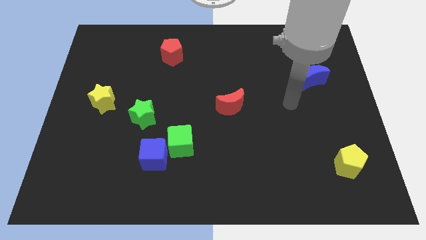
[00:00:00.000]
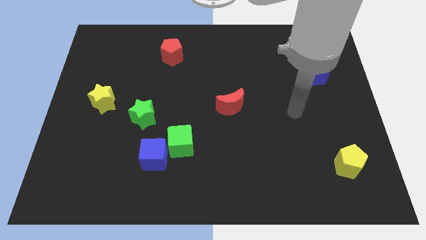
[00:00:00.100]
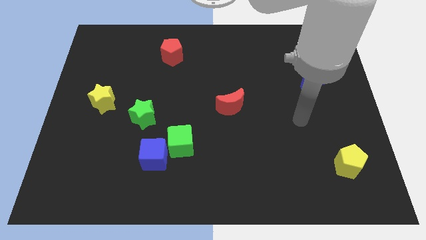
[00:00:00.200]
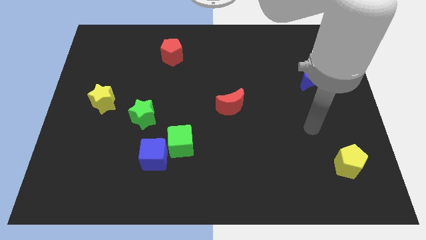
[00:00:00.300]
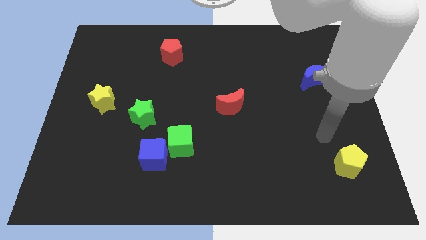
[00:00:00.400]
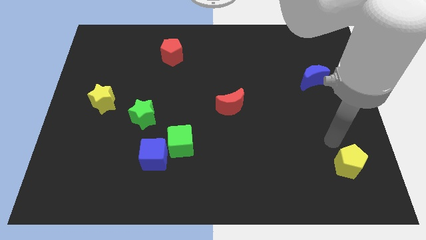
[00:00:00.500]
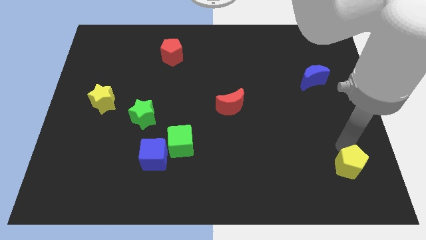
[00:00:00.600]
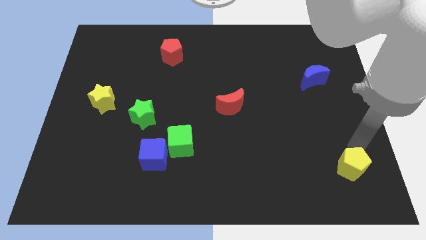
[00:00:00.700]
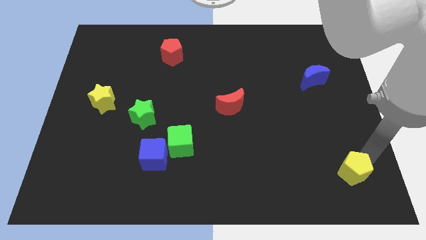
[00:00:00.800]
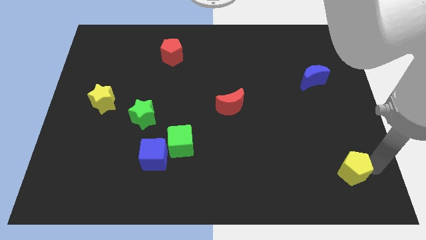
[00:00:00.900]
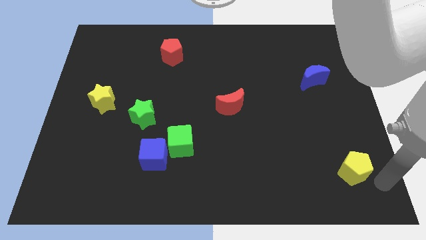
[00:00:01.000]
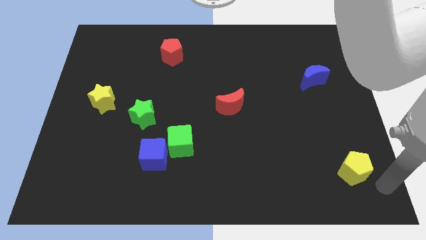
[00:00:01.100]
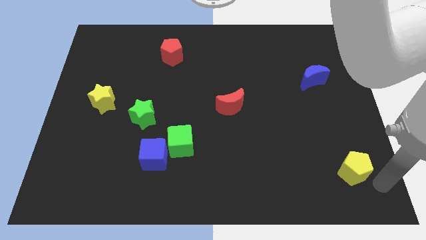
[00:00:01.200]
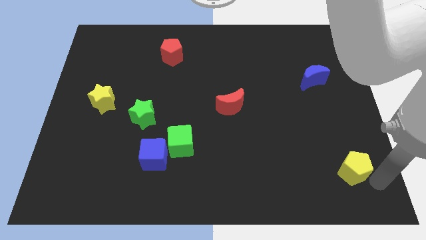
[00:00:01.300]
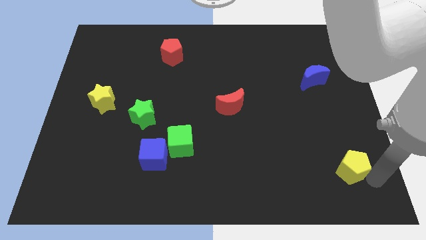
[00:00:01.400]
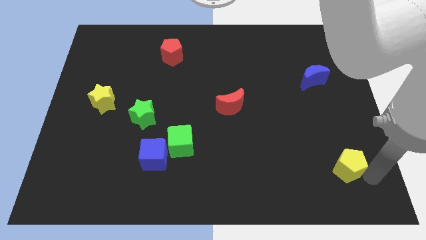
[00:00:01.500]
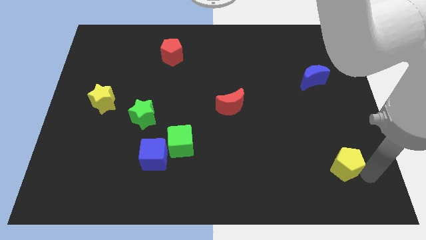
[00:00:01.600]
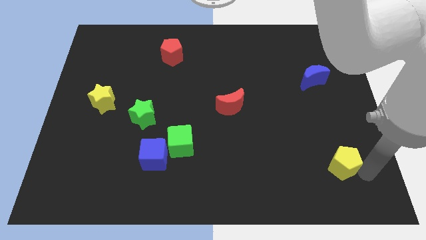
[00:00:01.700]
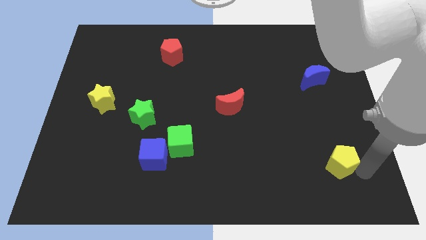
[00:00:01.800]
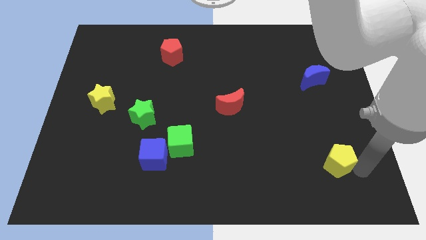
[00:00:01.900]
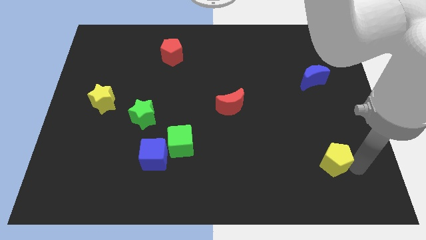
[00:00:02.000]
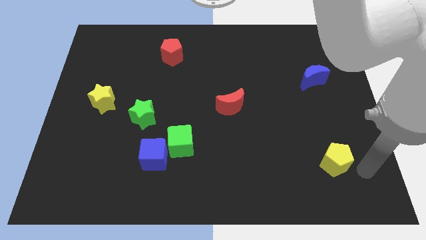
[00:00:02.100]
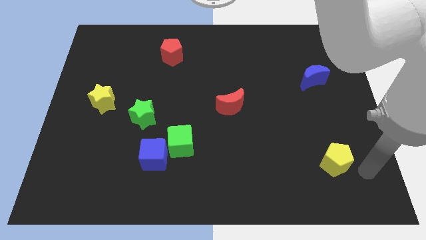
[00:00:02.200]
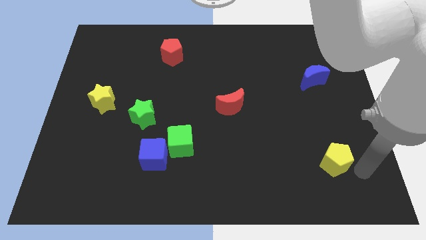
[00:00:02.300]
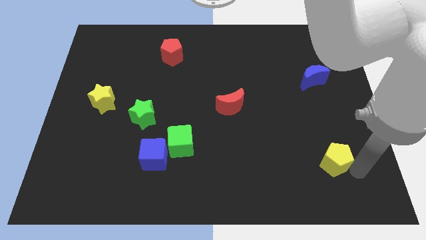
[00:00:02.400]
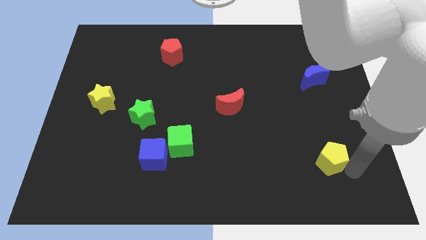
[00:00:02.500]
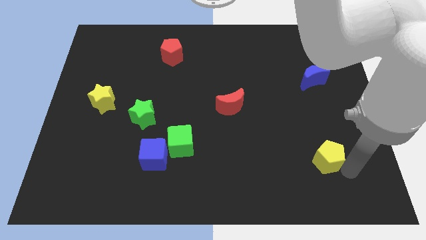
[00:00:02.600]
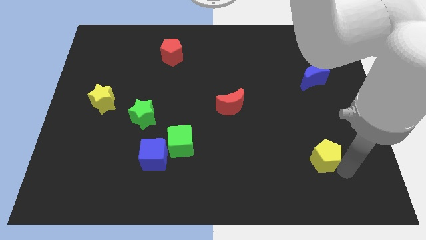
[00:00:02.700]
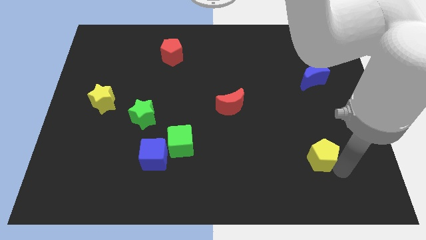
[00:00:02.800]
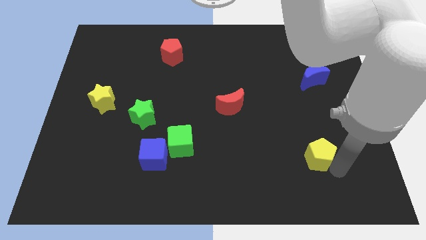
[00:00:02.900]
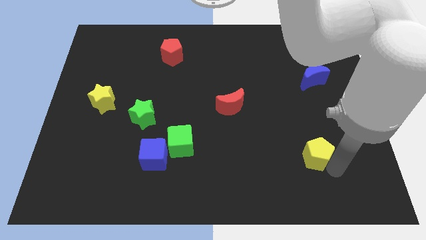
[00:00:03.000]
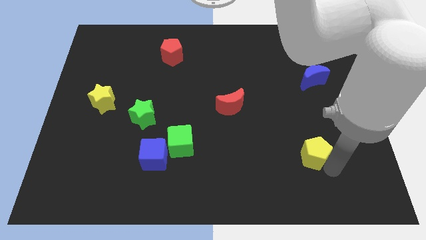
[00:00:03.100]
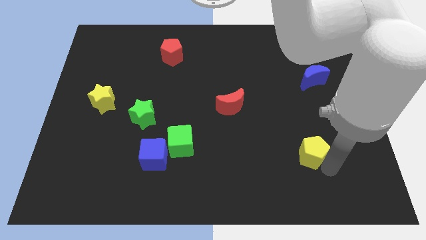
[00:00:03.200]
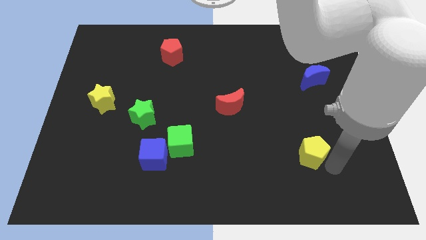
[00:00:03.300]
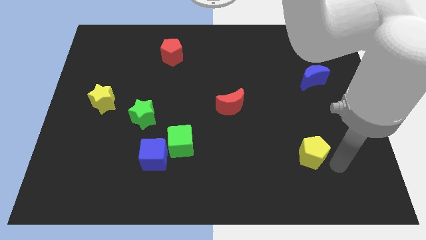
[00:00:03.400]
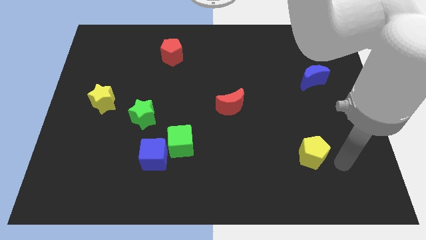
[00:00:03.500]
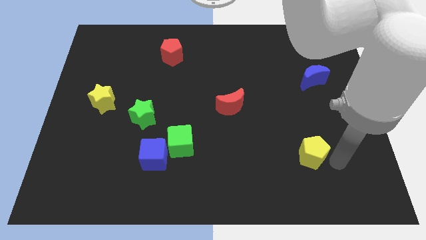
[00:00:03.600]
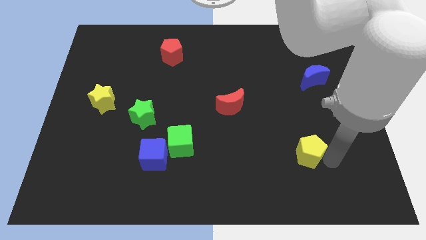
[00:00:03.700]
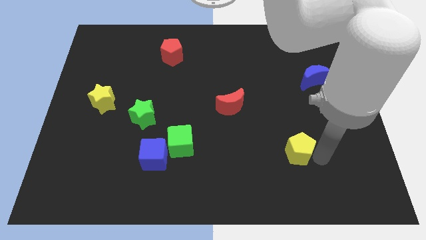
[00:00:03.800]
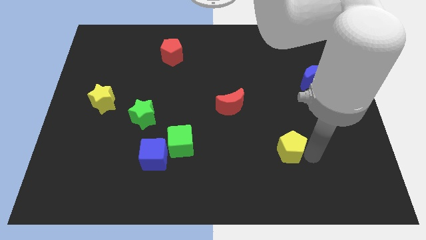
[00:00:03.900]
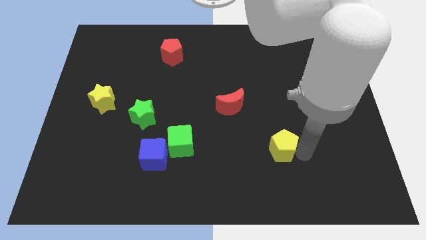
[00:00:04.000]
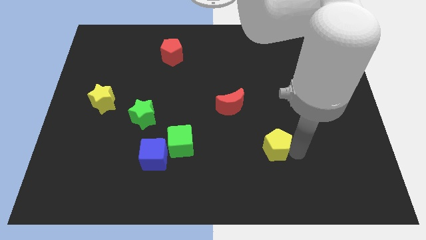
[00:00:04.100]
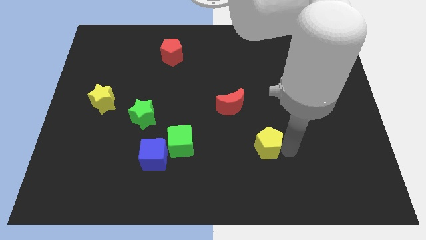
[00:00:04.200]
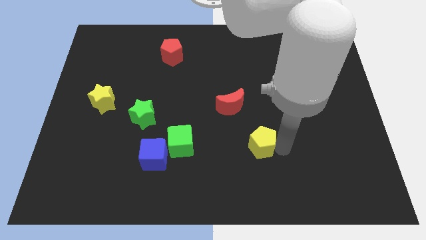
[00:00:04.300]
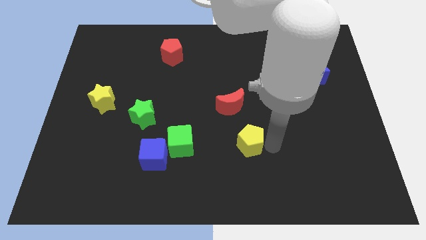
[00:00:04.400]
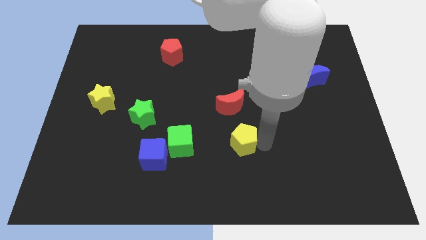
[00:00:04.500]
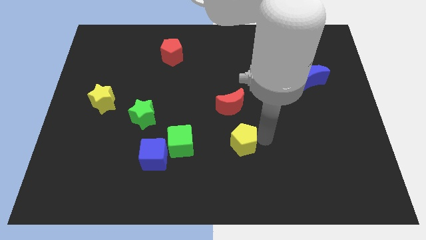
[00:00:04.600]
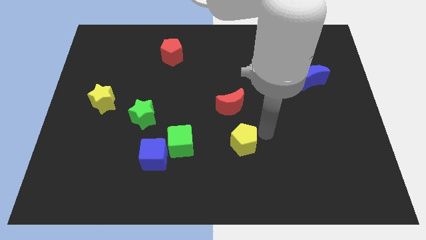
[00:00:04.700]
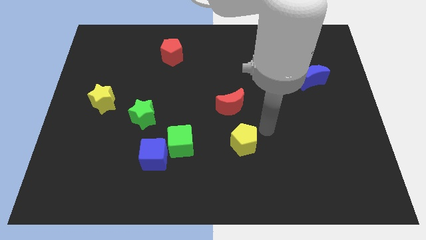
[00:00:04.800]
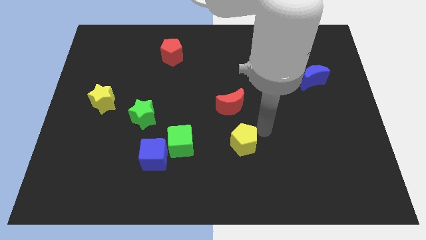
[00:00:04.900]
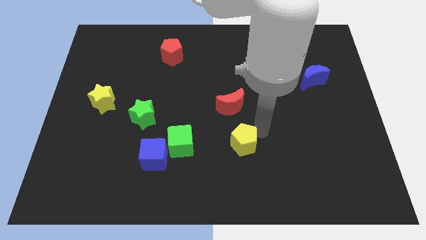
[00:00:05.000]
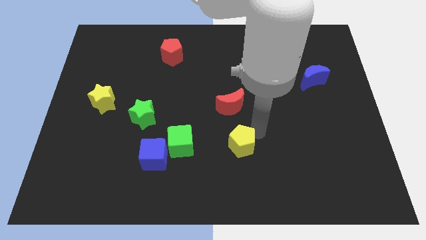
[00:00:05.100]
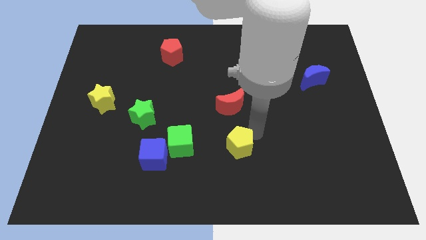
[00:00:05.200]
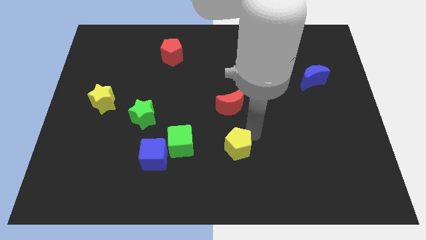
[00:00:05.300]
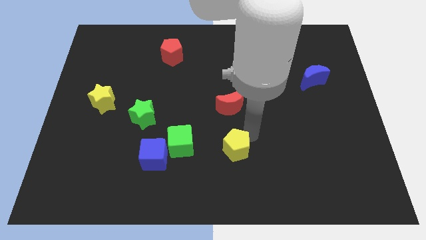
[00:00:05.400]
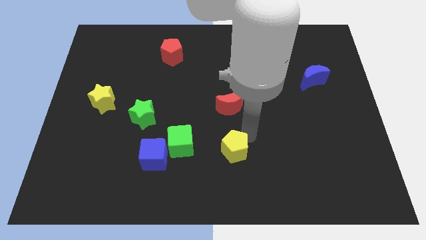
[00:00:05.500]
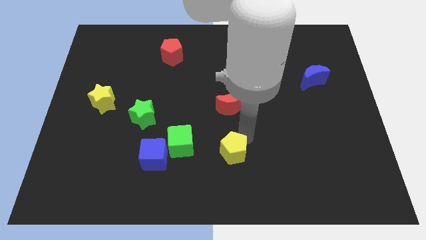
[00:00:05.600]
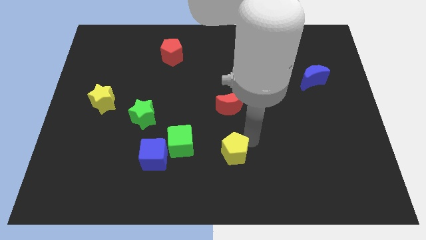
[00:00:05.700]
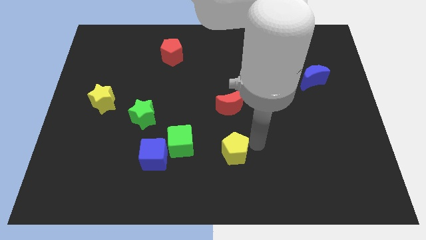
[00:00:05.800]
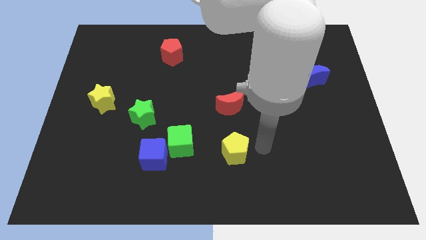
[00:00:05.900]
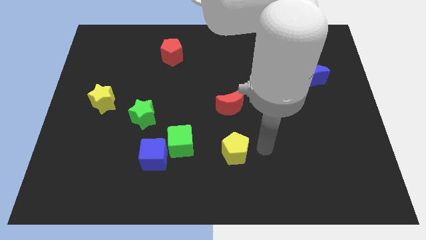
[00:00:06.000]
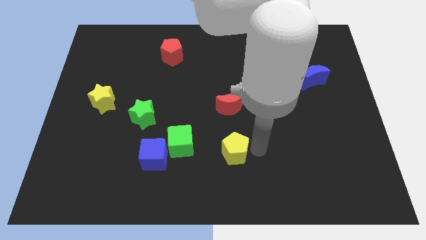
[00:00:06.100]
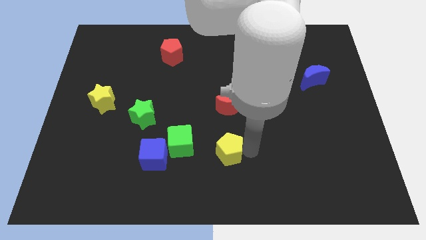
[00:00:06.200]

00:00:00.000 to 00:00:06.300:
move the yellow pentagon just right of the blue cube
